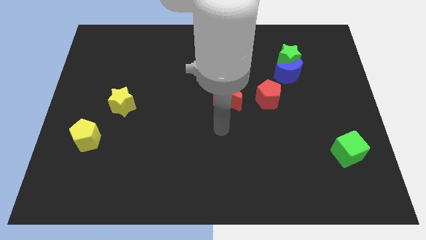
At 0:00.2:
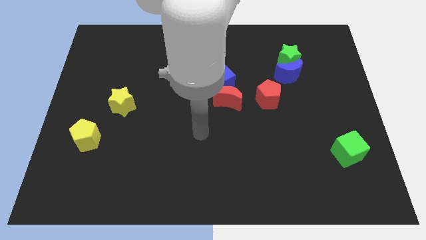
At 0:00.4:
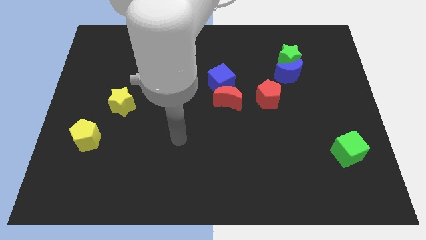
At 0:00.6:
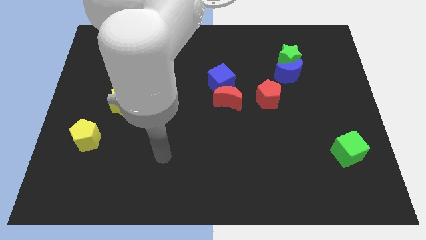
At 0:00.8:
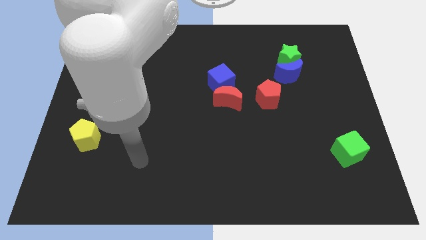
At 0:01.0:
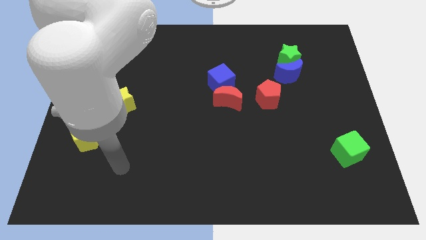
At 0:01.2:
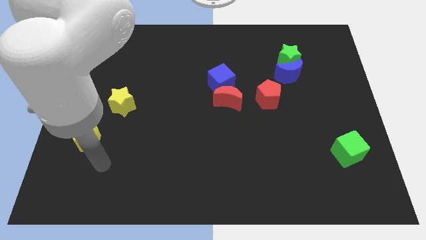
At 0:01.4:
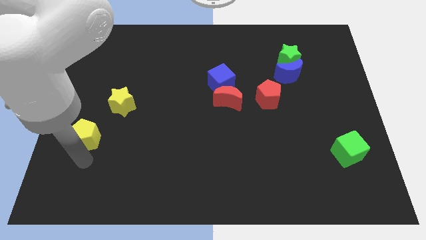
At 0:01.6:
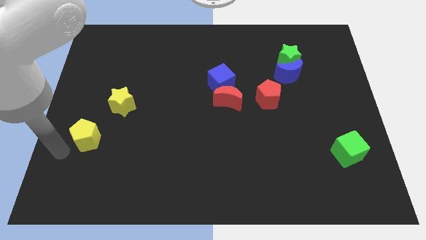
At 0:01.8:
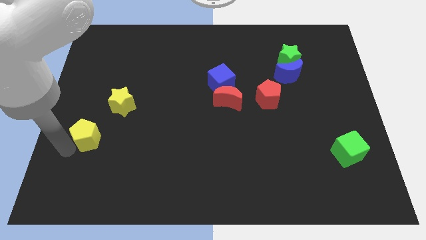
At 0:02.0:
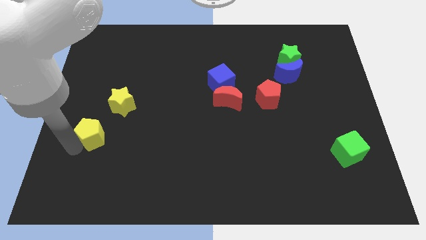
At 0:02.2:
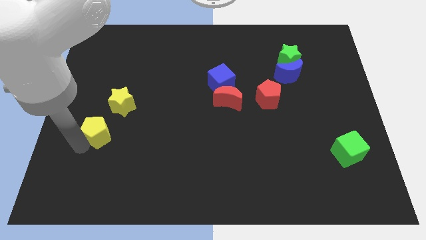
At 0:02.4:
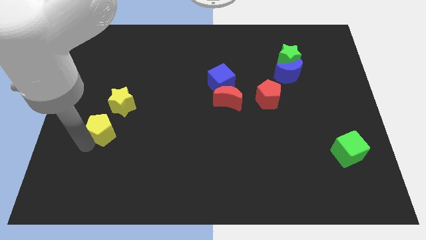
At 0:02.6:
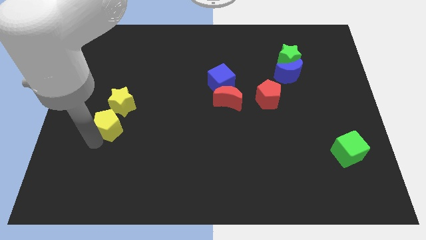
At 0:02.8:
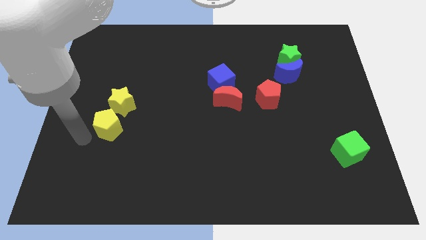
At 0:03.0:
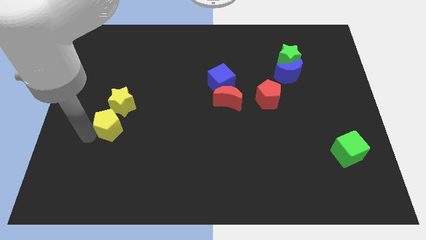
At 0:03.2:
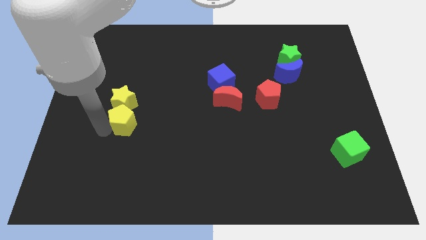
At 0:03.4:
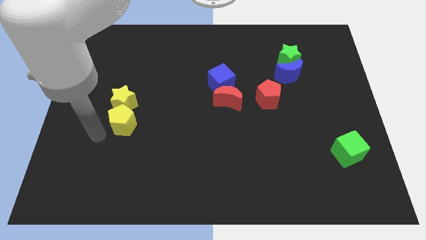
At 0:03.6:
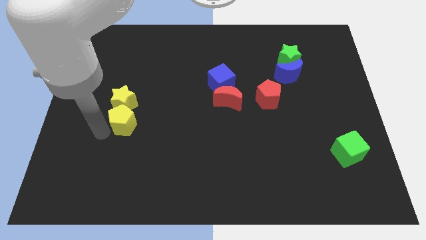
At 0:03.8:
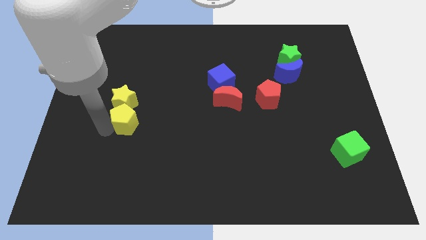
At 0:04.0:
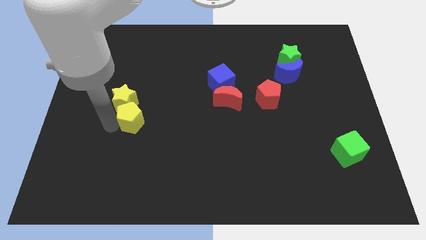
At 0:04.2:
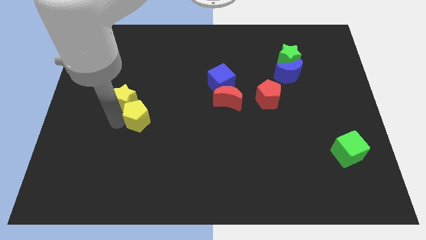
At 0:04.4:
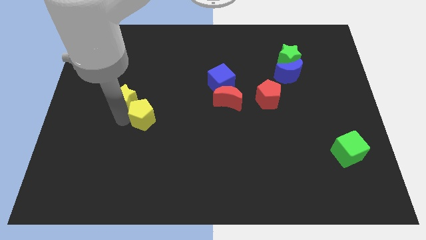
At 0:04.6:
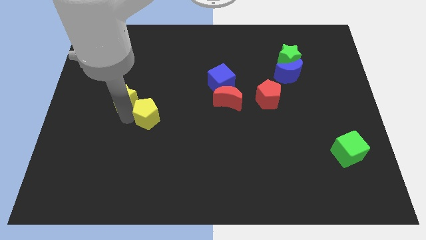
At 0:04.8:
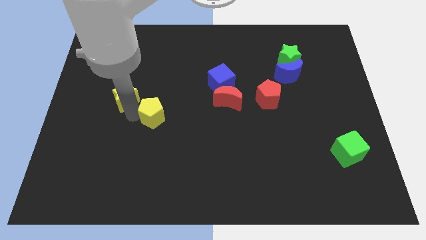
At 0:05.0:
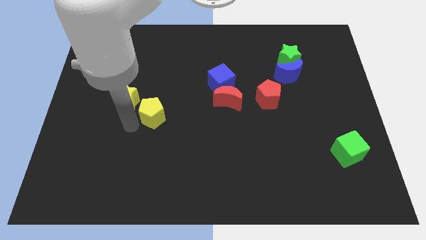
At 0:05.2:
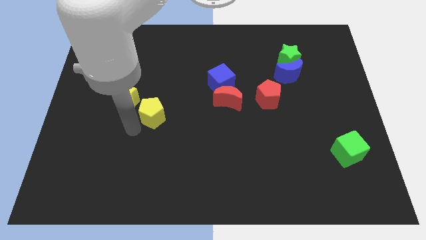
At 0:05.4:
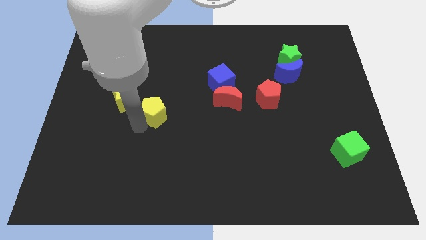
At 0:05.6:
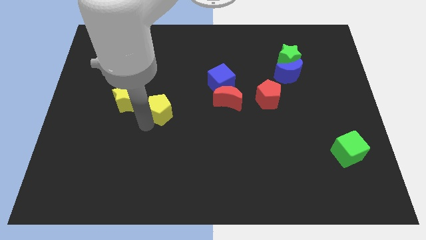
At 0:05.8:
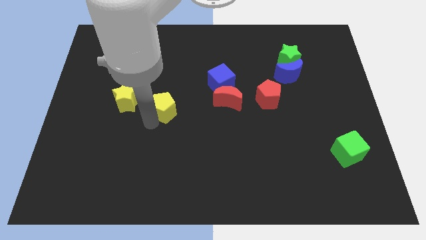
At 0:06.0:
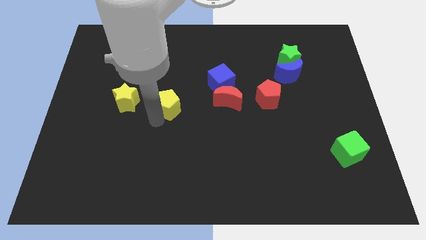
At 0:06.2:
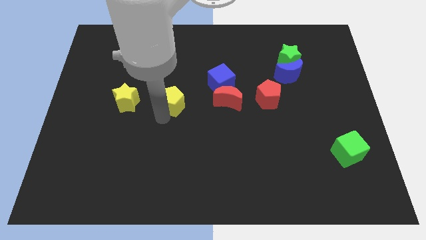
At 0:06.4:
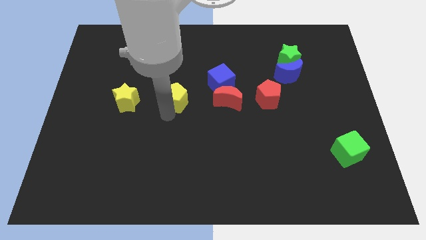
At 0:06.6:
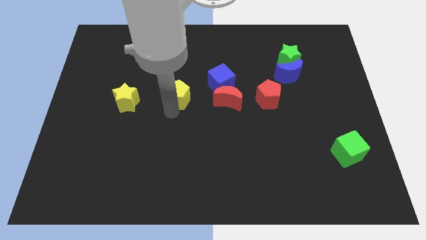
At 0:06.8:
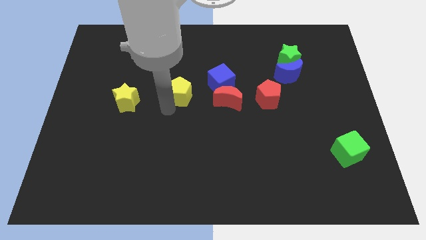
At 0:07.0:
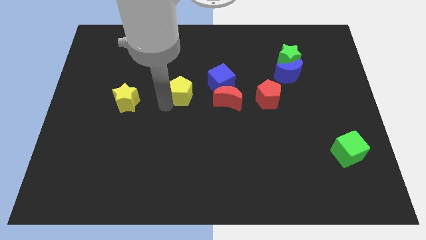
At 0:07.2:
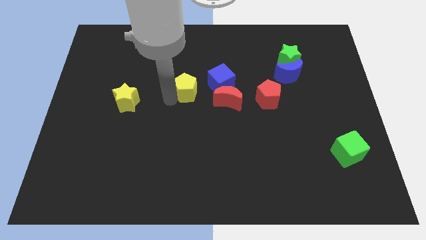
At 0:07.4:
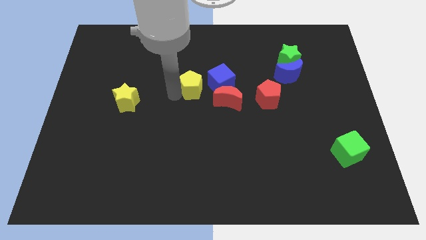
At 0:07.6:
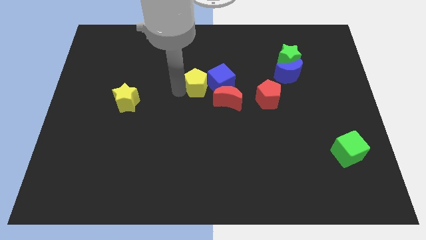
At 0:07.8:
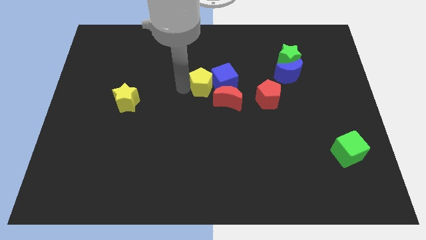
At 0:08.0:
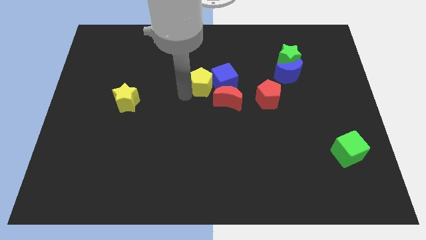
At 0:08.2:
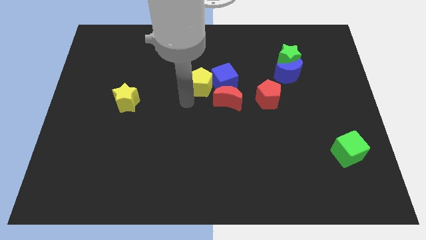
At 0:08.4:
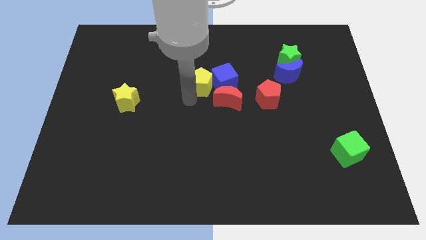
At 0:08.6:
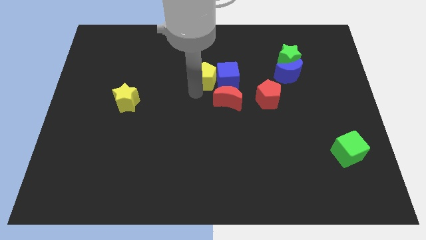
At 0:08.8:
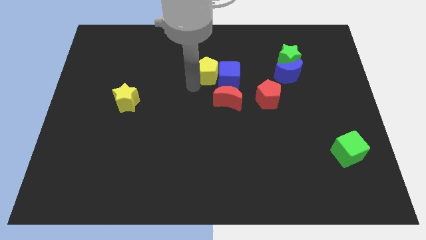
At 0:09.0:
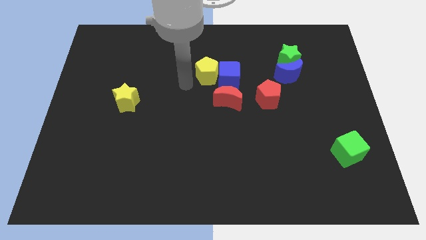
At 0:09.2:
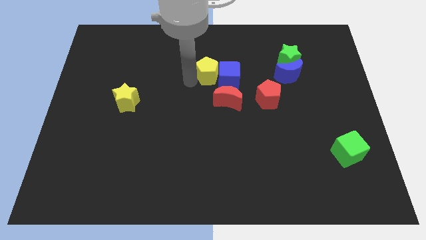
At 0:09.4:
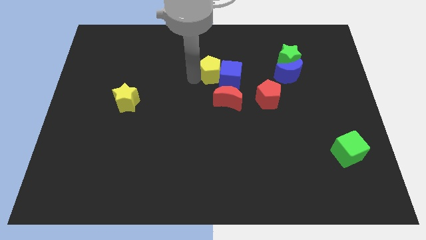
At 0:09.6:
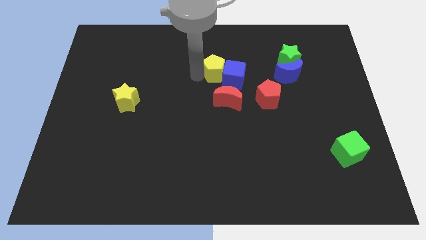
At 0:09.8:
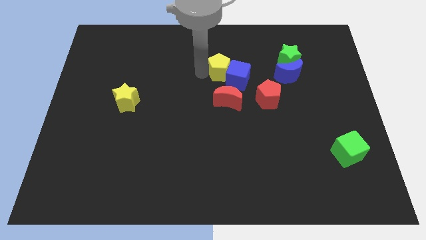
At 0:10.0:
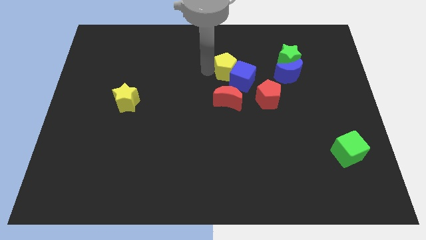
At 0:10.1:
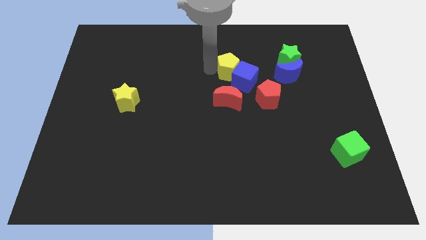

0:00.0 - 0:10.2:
push the yellow pentagon just left of the green star

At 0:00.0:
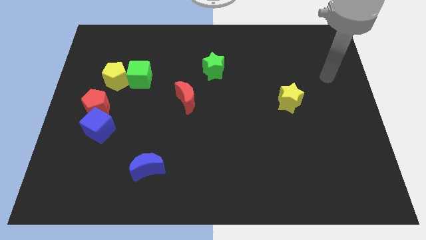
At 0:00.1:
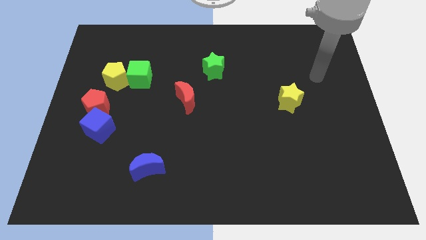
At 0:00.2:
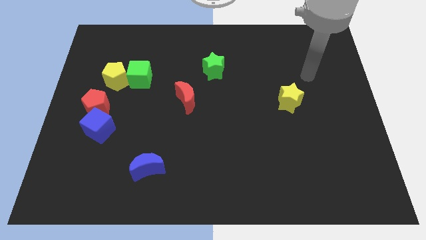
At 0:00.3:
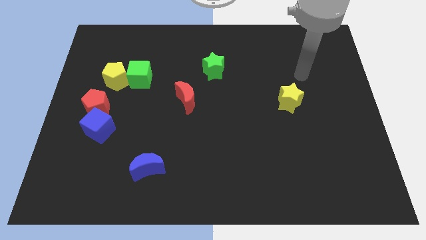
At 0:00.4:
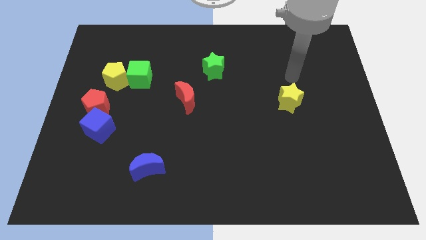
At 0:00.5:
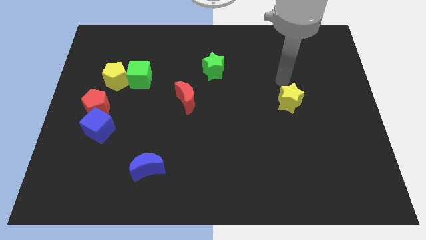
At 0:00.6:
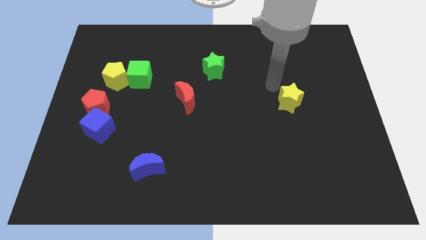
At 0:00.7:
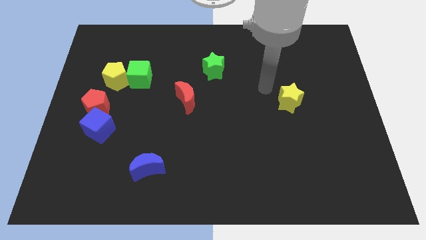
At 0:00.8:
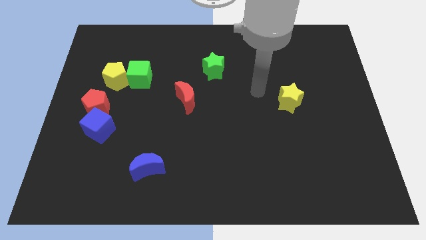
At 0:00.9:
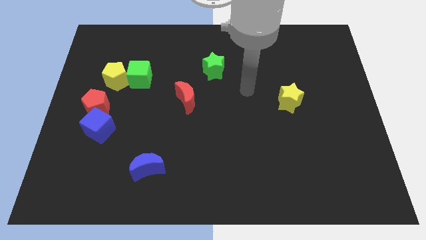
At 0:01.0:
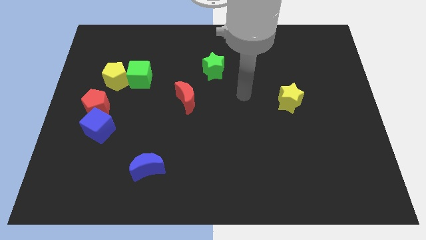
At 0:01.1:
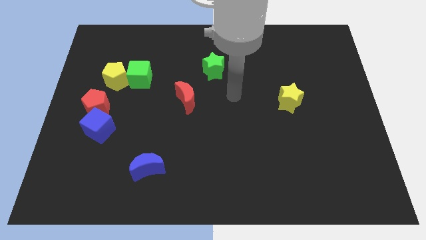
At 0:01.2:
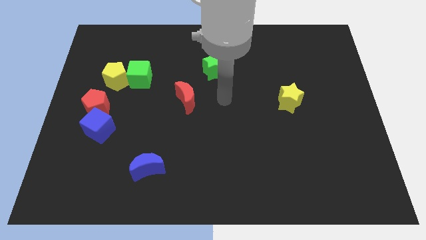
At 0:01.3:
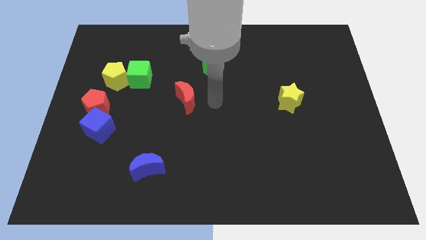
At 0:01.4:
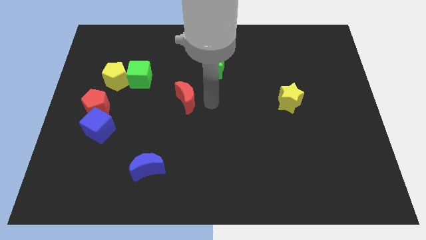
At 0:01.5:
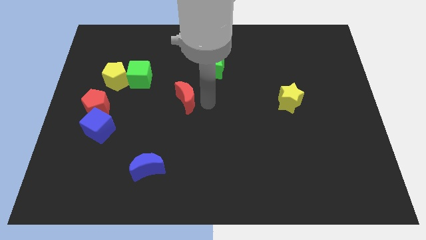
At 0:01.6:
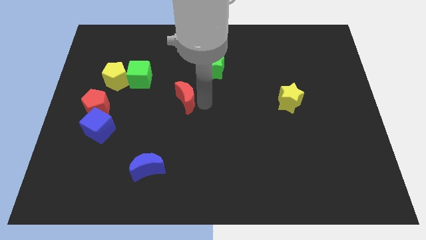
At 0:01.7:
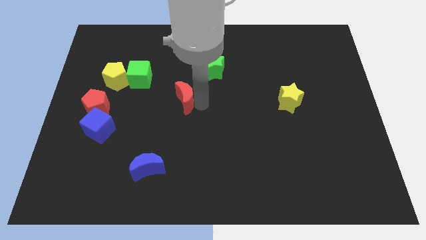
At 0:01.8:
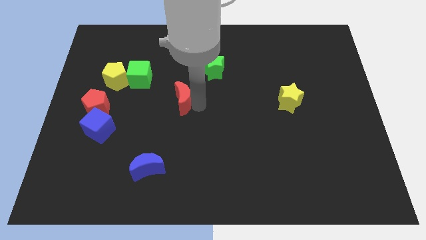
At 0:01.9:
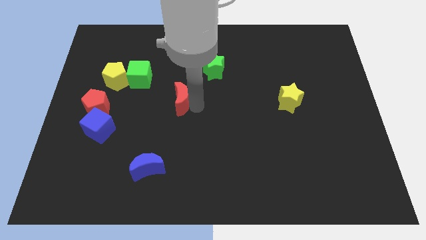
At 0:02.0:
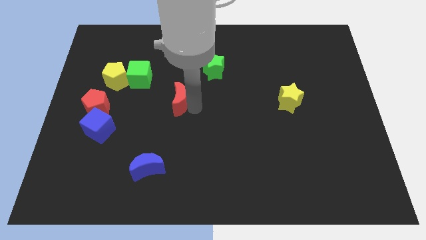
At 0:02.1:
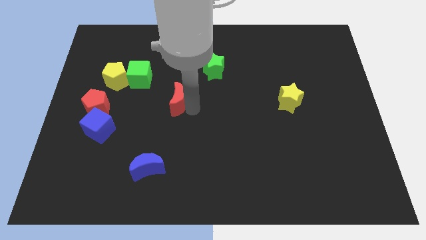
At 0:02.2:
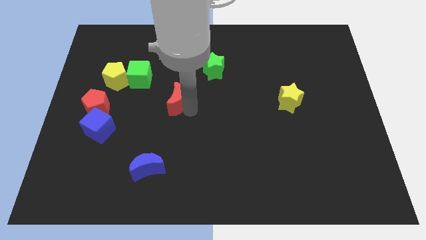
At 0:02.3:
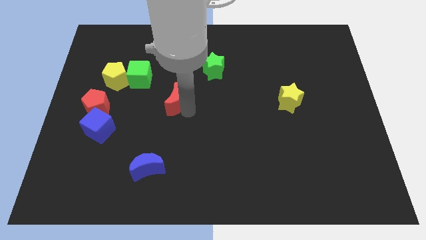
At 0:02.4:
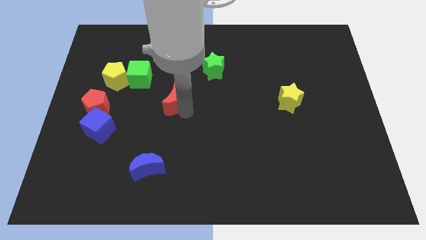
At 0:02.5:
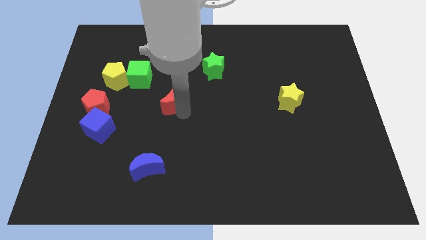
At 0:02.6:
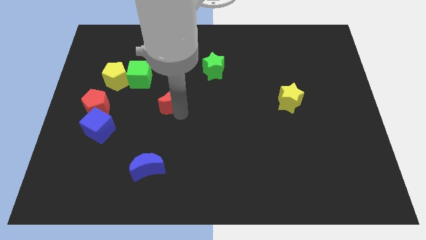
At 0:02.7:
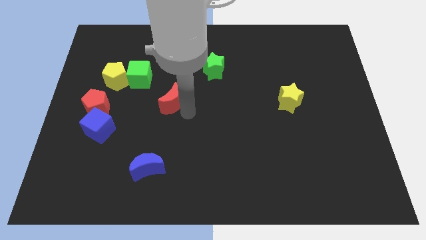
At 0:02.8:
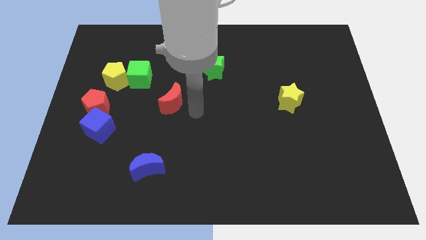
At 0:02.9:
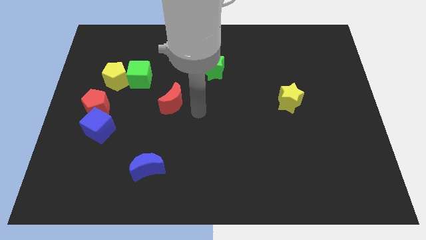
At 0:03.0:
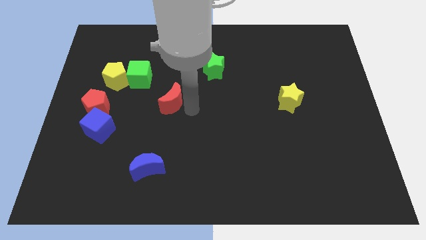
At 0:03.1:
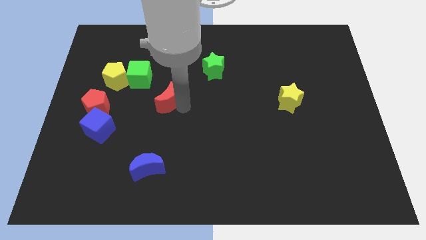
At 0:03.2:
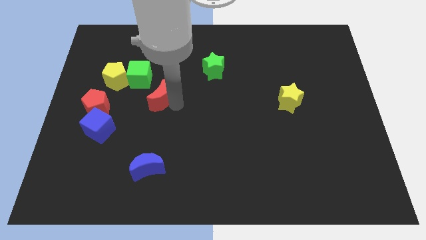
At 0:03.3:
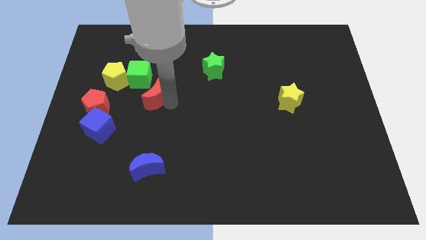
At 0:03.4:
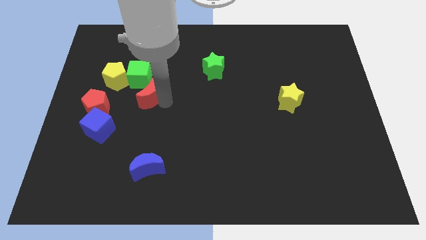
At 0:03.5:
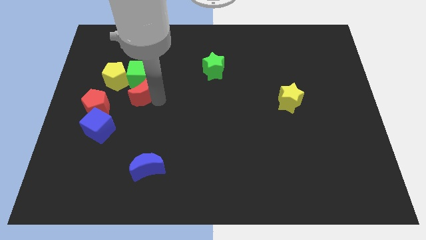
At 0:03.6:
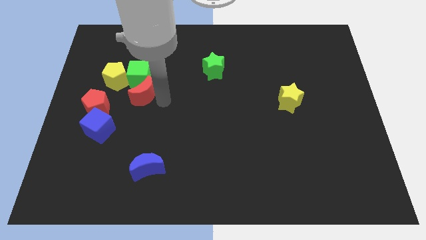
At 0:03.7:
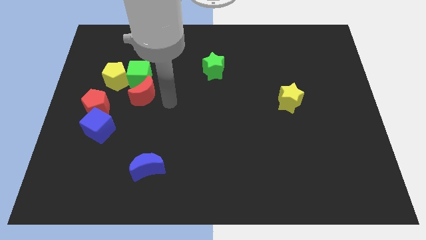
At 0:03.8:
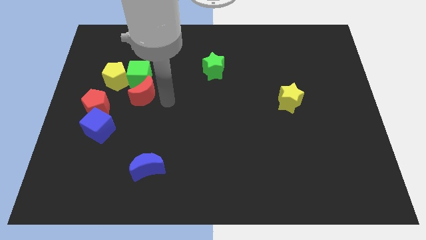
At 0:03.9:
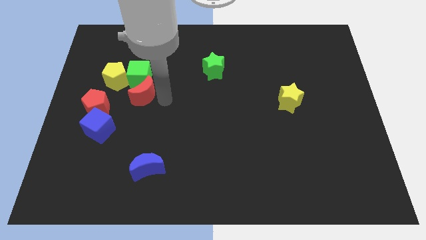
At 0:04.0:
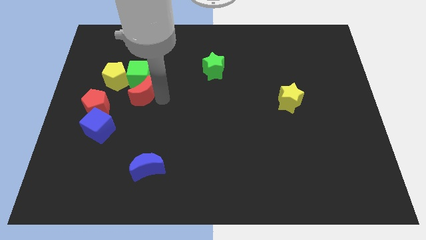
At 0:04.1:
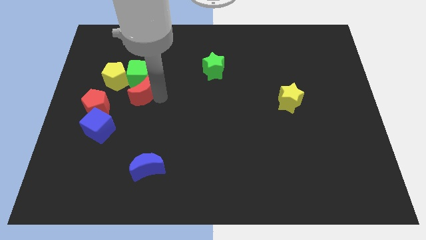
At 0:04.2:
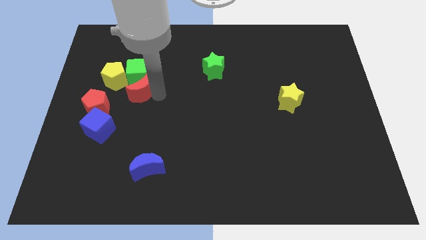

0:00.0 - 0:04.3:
push the red moon to the top right side of the red pentagon
